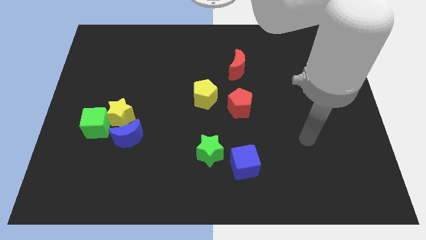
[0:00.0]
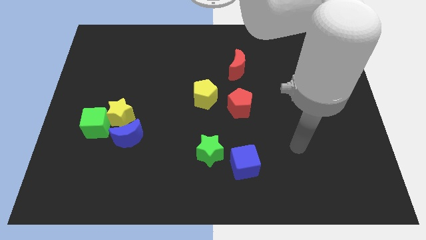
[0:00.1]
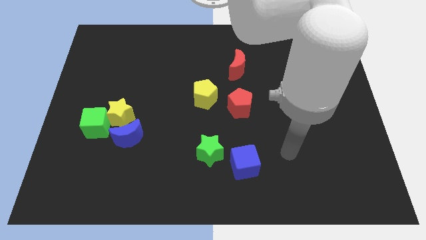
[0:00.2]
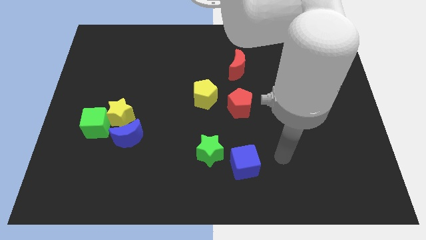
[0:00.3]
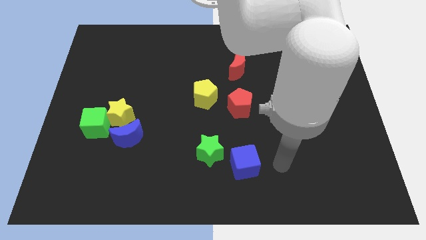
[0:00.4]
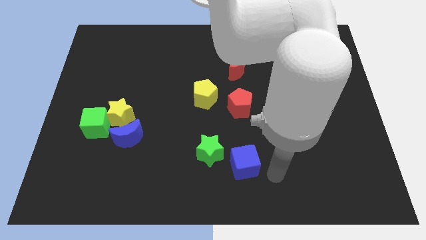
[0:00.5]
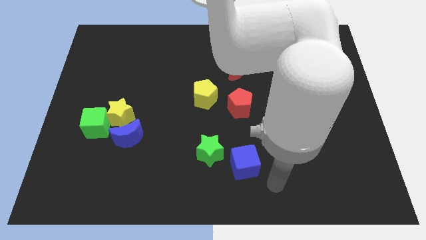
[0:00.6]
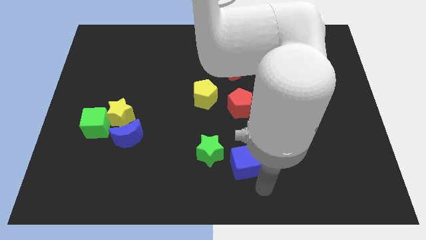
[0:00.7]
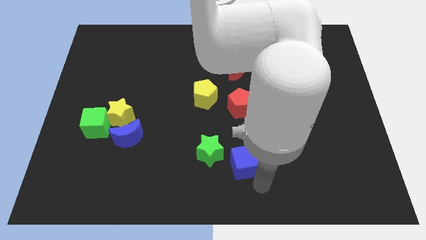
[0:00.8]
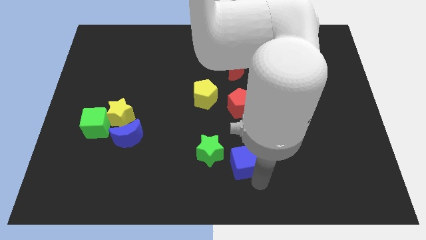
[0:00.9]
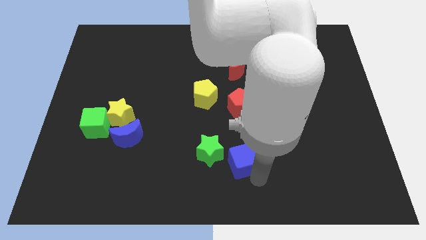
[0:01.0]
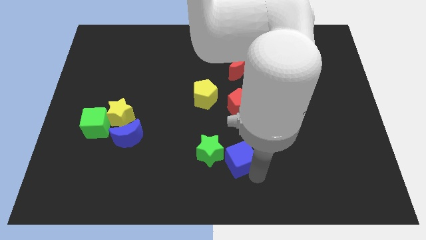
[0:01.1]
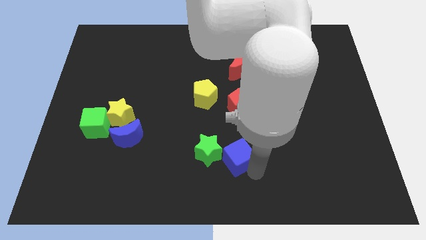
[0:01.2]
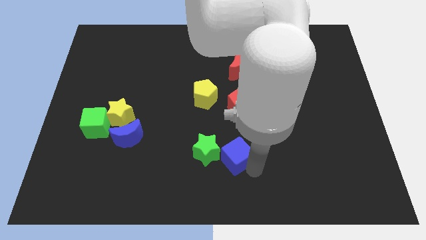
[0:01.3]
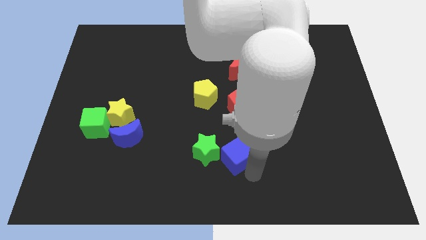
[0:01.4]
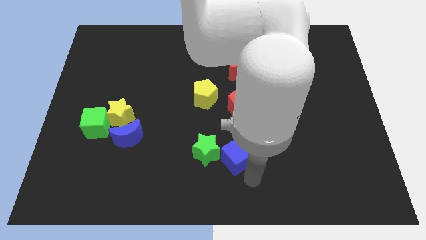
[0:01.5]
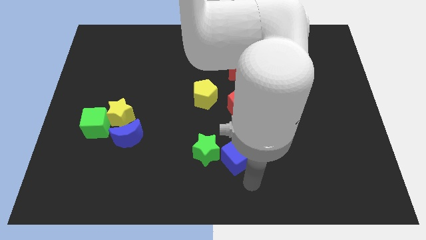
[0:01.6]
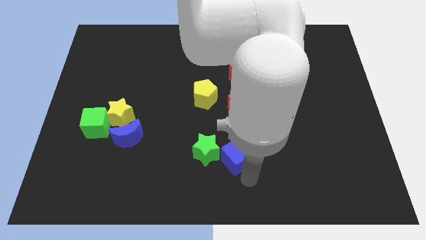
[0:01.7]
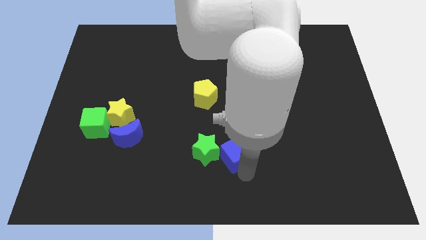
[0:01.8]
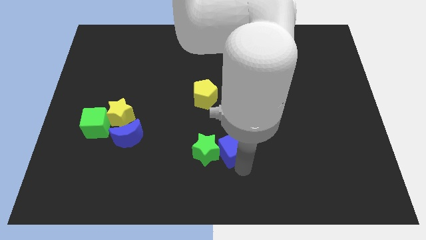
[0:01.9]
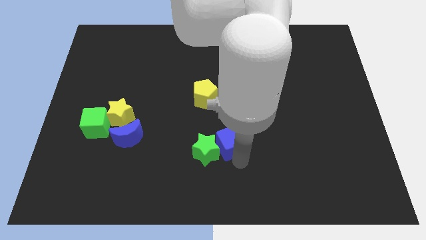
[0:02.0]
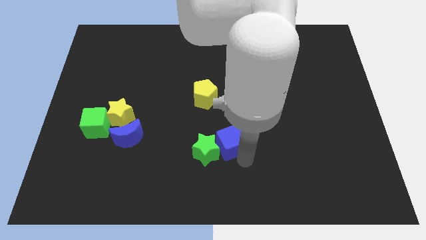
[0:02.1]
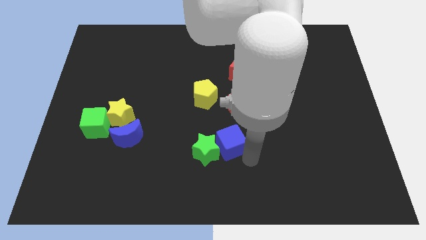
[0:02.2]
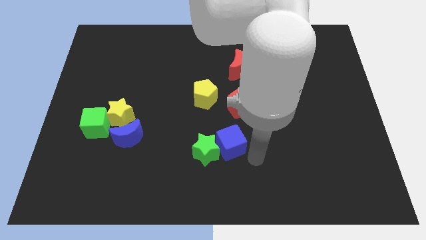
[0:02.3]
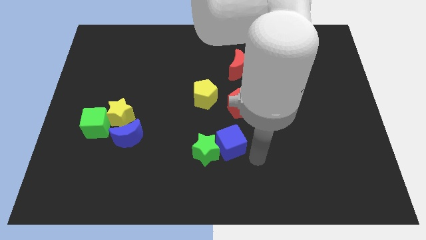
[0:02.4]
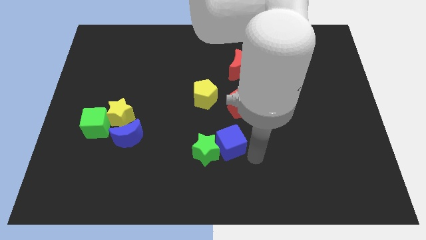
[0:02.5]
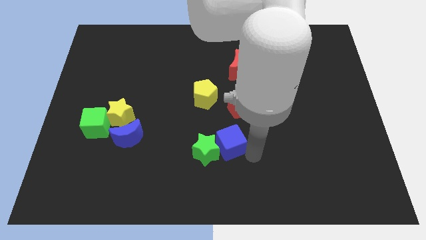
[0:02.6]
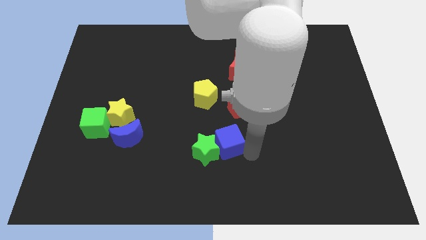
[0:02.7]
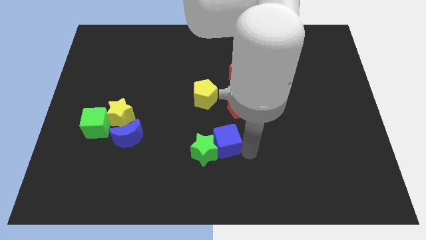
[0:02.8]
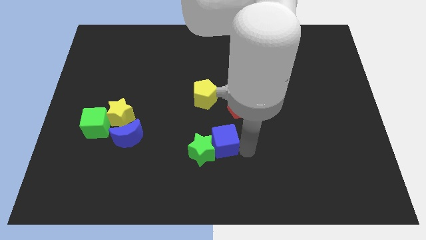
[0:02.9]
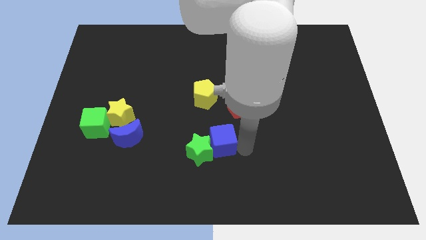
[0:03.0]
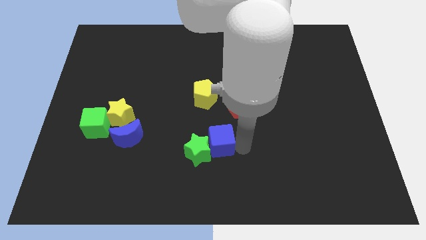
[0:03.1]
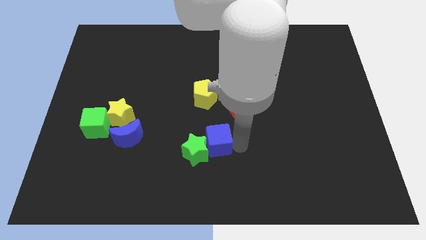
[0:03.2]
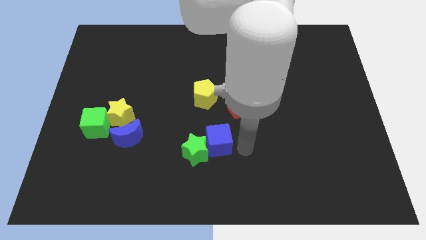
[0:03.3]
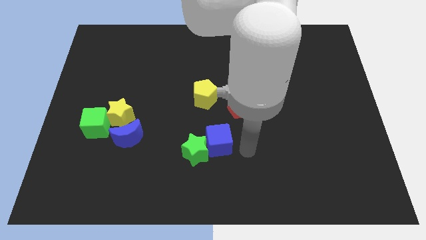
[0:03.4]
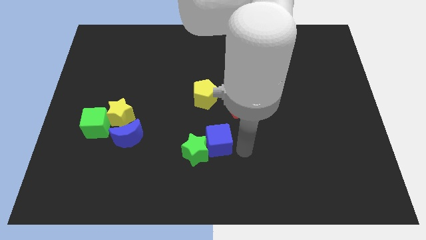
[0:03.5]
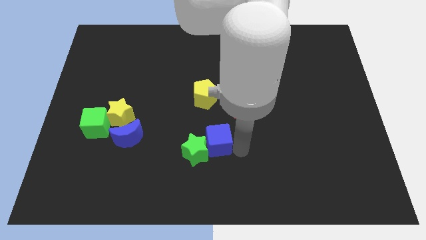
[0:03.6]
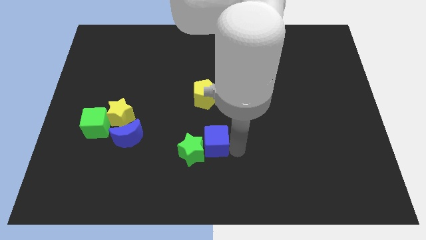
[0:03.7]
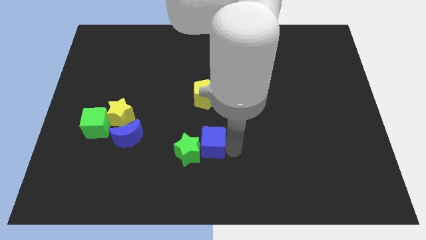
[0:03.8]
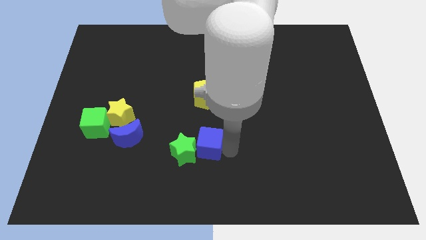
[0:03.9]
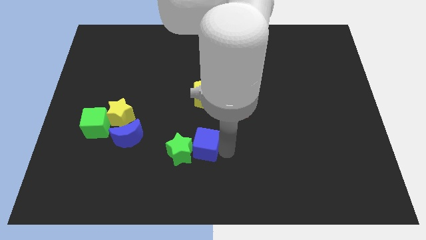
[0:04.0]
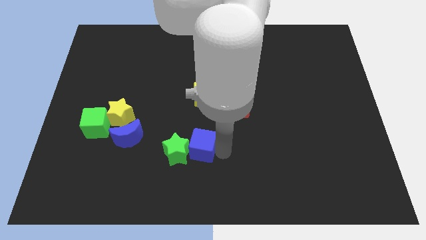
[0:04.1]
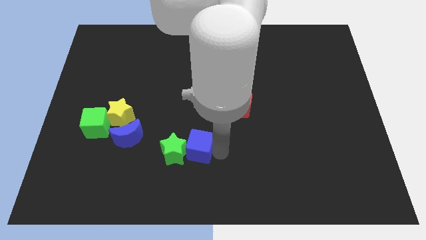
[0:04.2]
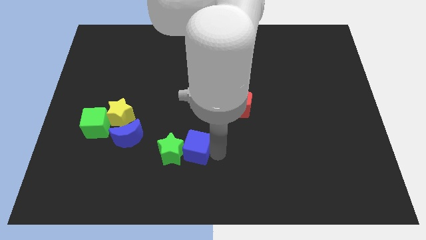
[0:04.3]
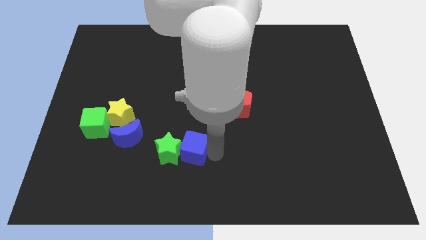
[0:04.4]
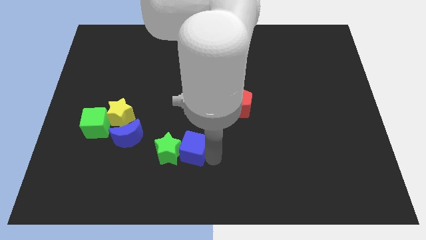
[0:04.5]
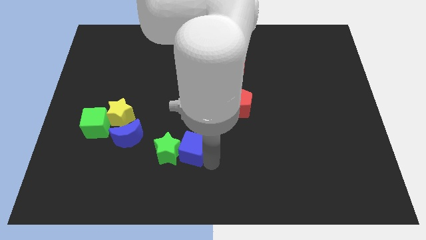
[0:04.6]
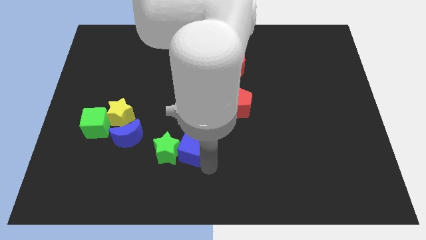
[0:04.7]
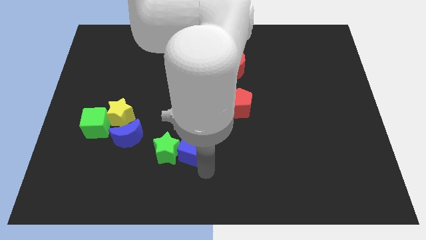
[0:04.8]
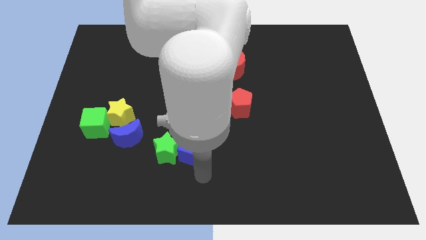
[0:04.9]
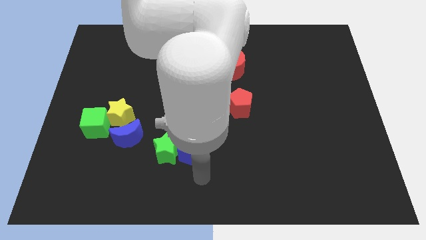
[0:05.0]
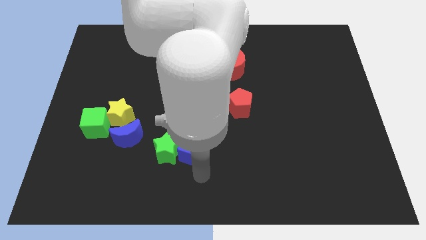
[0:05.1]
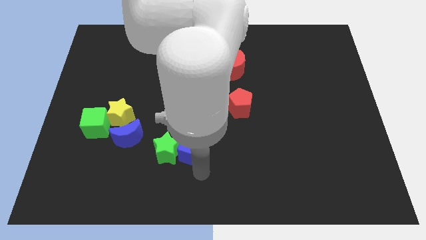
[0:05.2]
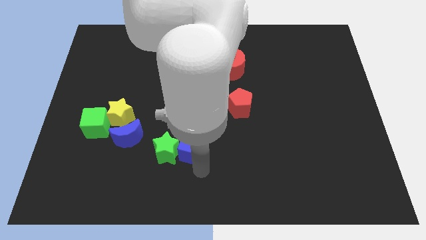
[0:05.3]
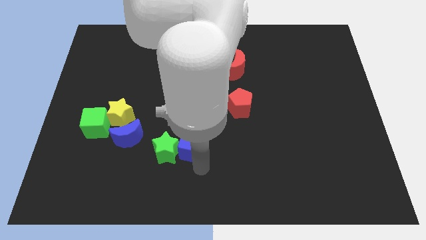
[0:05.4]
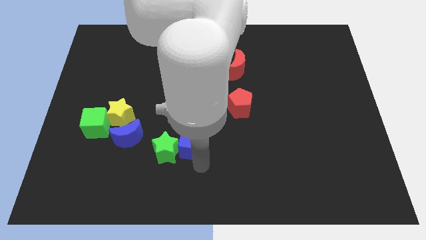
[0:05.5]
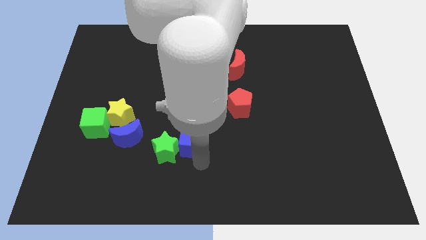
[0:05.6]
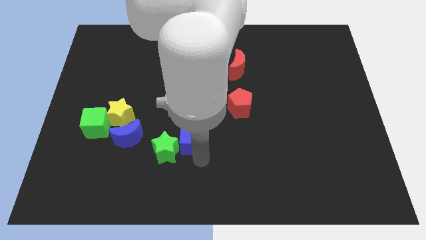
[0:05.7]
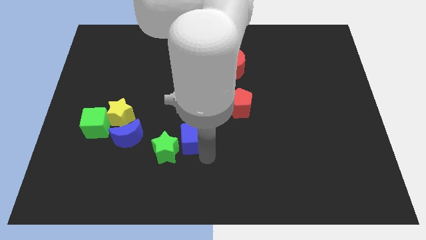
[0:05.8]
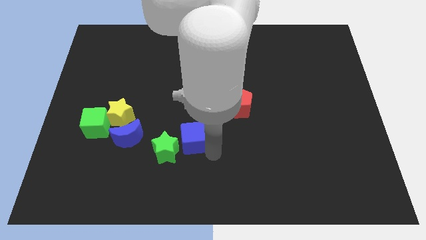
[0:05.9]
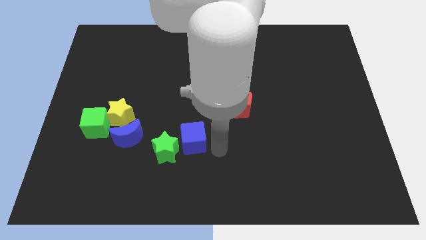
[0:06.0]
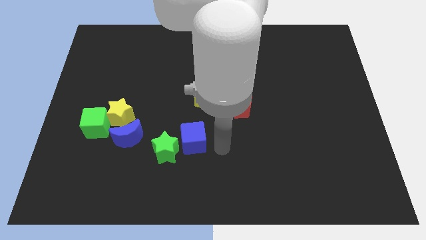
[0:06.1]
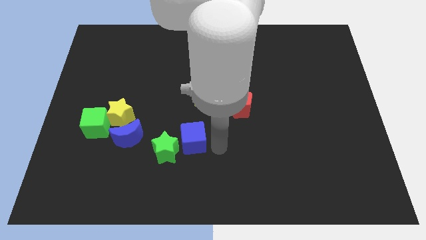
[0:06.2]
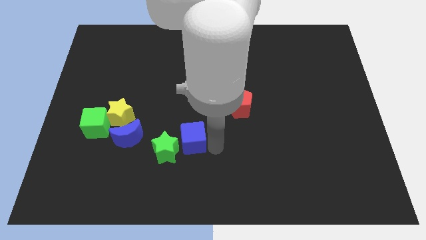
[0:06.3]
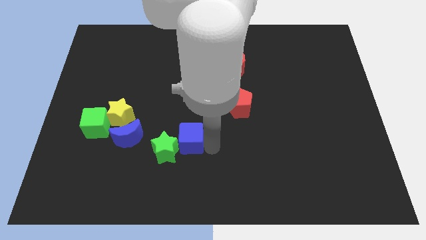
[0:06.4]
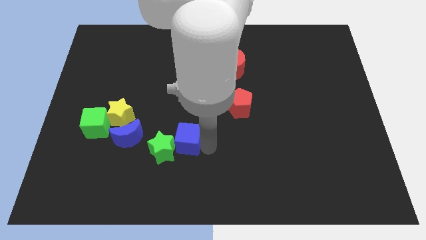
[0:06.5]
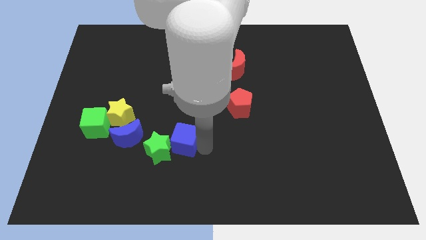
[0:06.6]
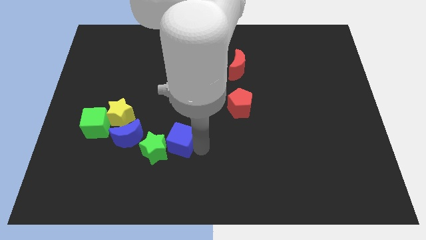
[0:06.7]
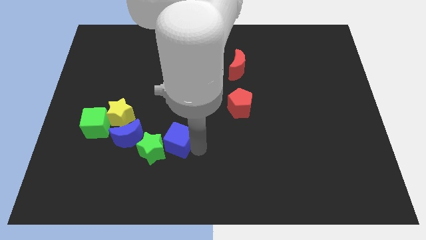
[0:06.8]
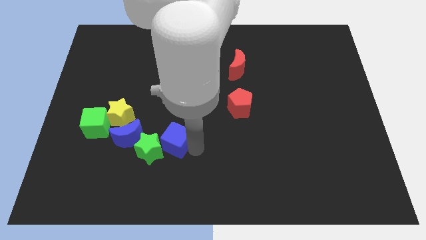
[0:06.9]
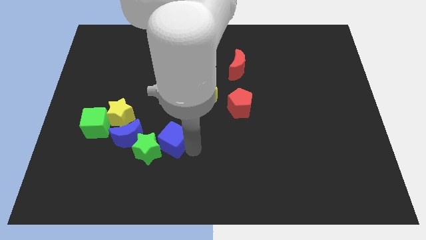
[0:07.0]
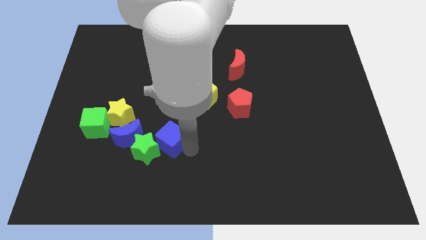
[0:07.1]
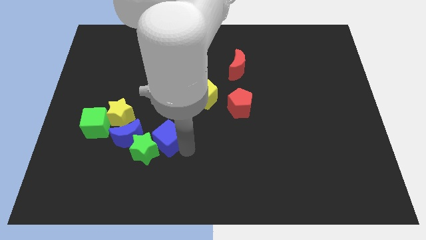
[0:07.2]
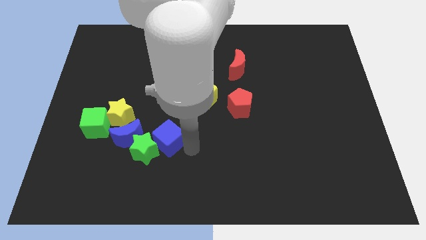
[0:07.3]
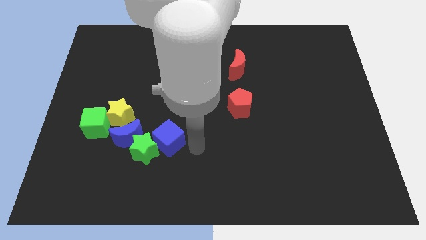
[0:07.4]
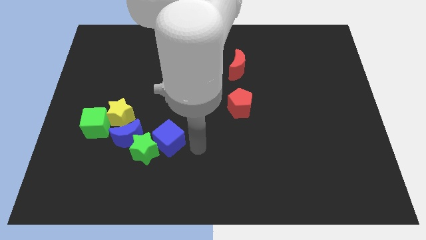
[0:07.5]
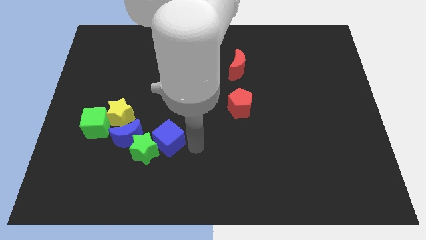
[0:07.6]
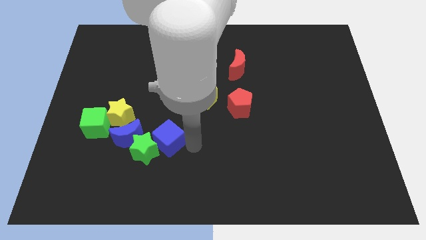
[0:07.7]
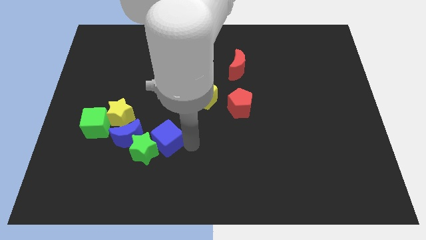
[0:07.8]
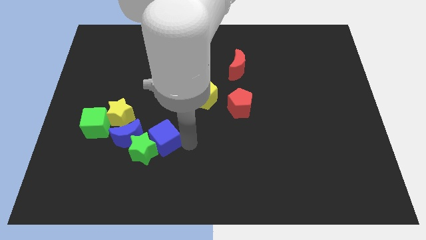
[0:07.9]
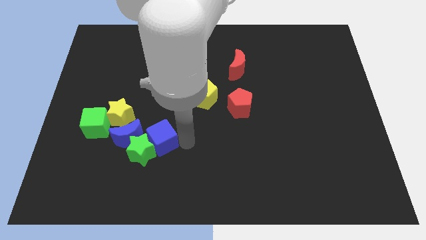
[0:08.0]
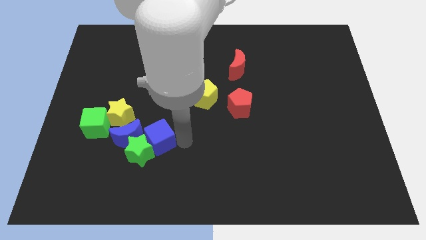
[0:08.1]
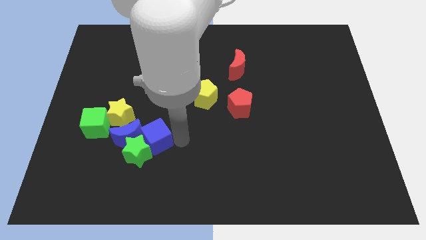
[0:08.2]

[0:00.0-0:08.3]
slide the blue cube close to the blue moon
